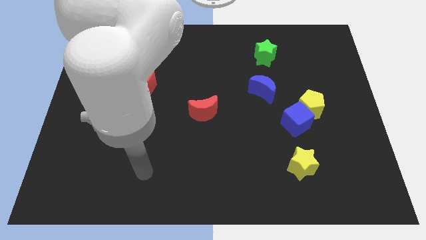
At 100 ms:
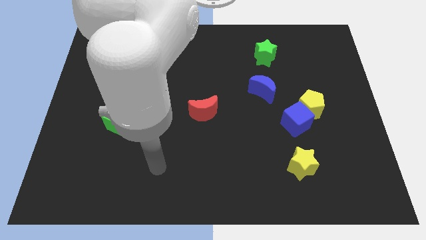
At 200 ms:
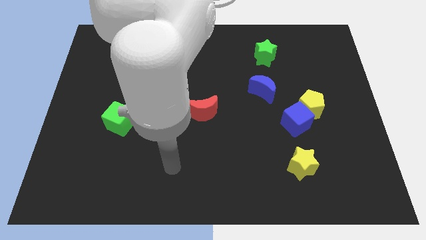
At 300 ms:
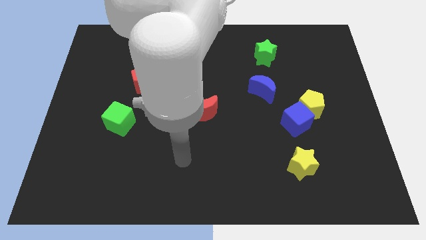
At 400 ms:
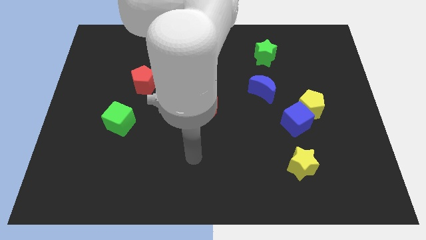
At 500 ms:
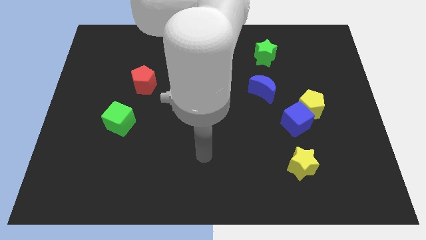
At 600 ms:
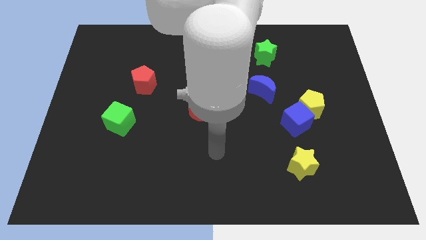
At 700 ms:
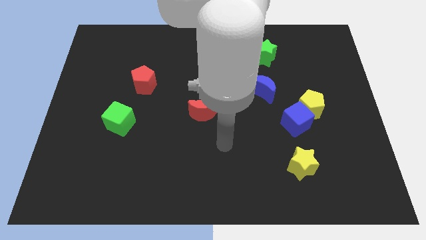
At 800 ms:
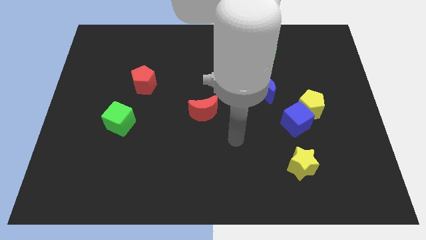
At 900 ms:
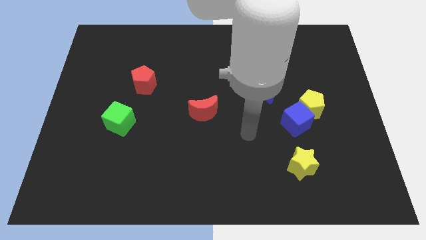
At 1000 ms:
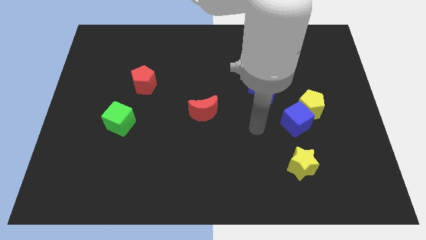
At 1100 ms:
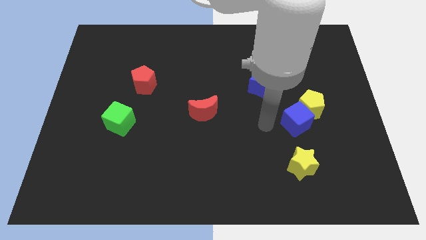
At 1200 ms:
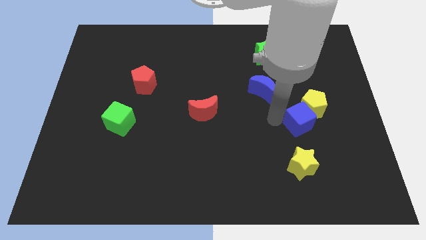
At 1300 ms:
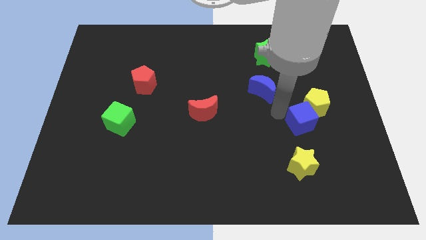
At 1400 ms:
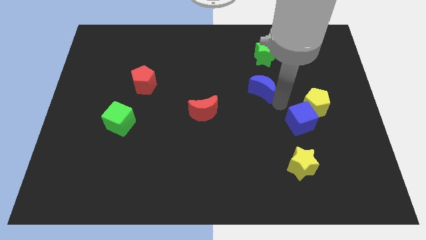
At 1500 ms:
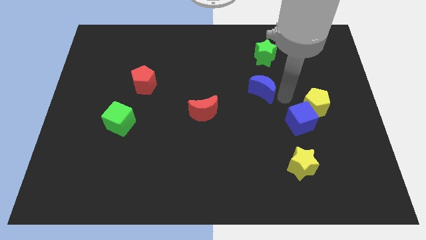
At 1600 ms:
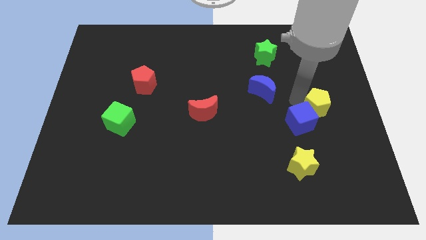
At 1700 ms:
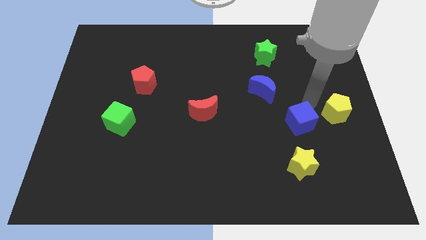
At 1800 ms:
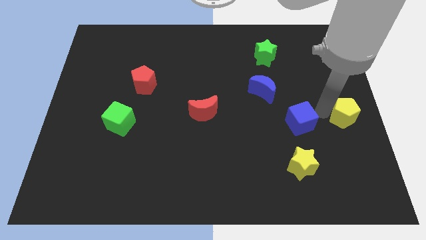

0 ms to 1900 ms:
move the blue cube away from the yellow pentagon

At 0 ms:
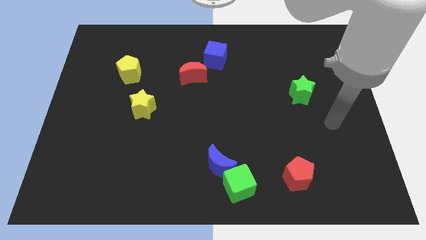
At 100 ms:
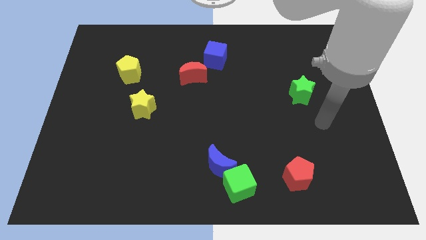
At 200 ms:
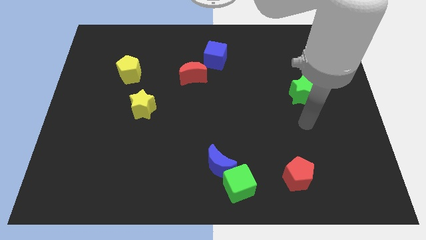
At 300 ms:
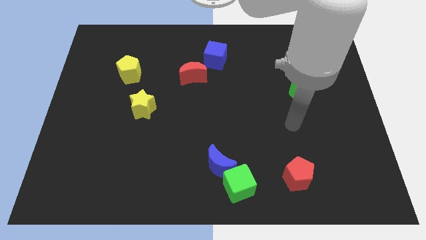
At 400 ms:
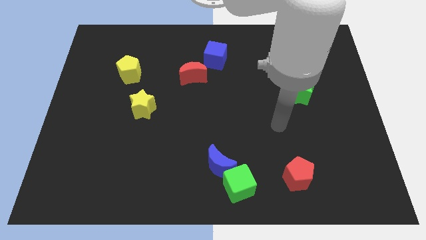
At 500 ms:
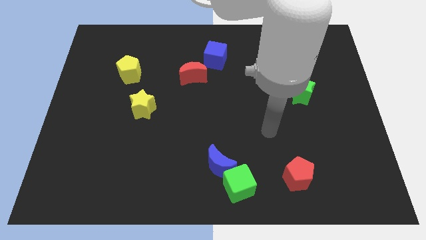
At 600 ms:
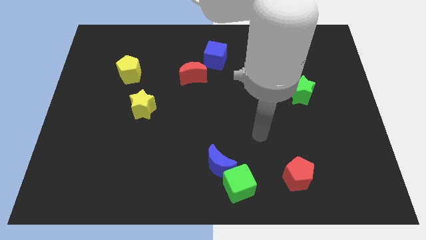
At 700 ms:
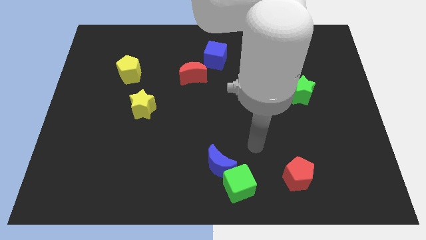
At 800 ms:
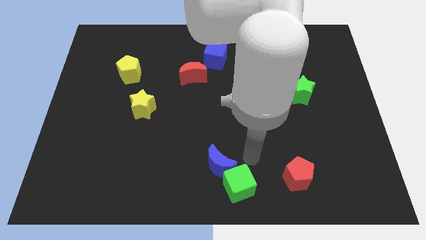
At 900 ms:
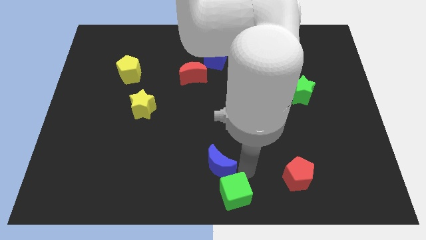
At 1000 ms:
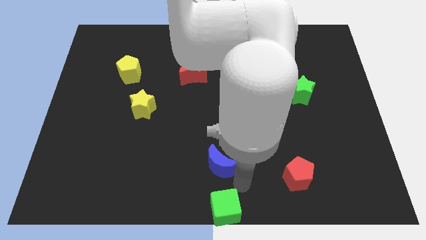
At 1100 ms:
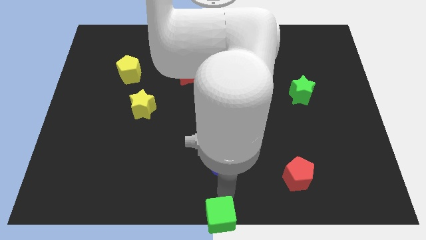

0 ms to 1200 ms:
pull the blue moon apart from the green cube

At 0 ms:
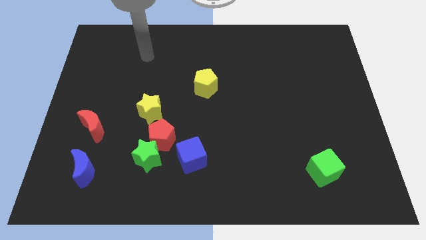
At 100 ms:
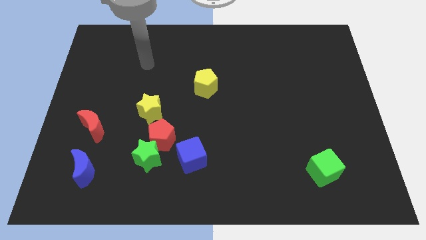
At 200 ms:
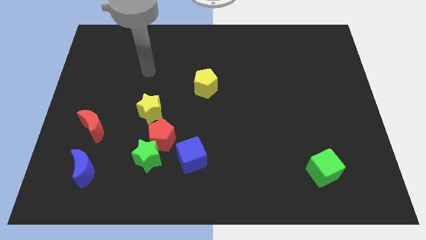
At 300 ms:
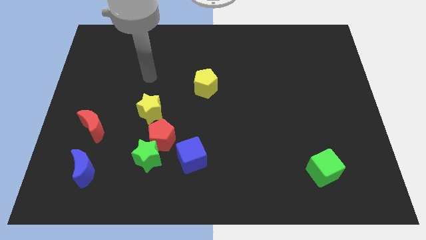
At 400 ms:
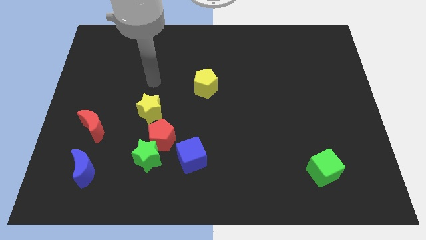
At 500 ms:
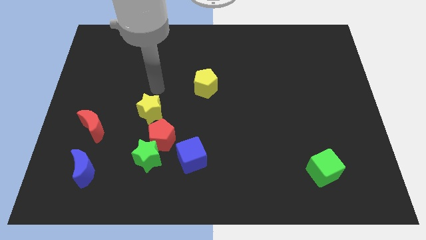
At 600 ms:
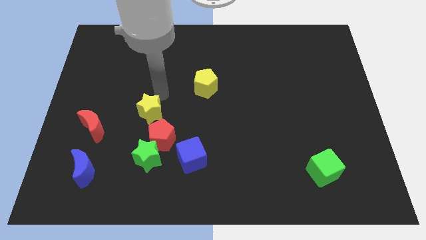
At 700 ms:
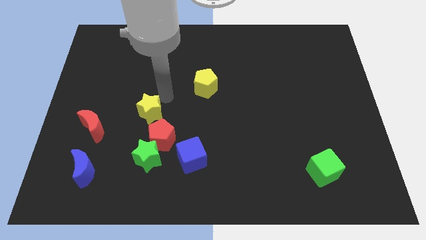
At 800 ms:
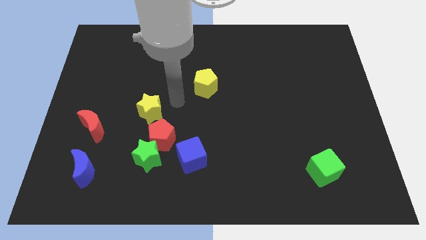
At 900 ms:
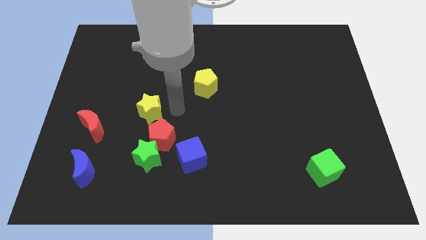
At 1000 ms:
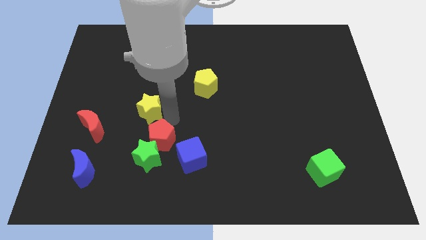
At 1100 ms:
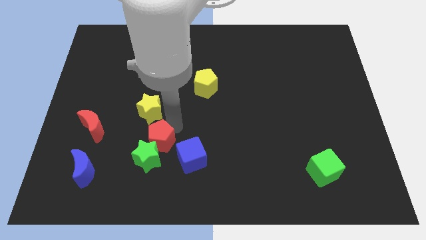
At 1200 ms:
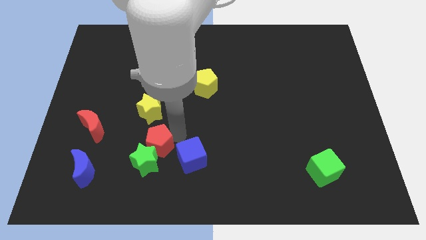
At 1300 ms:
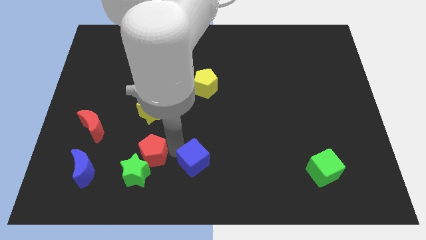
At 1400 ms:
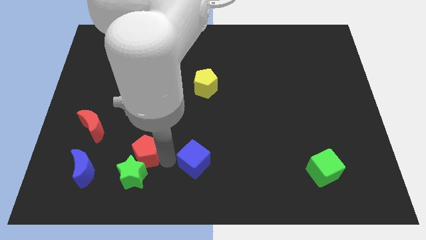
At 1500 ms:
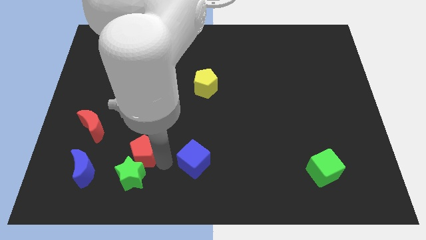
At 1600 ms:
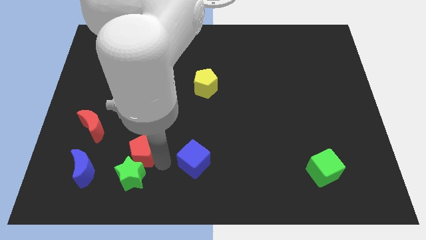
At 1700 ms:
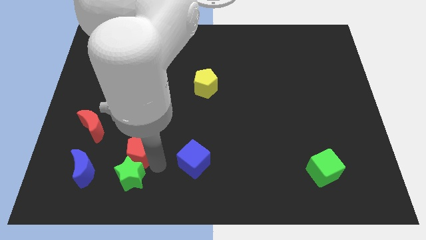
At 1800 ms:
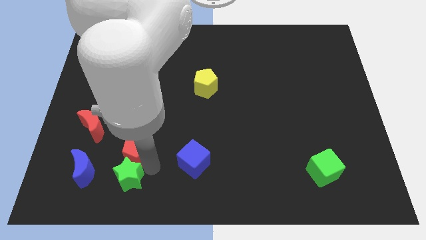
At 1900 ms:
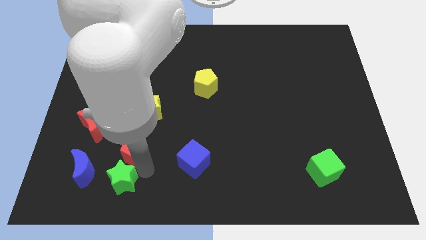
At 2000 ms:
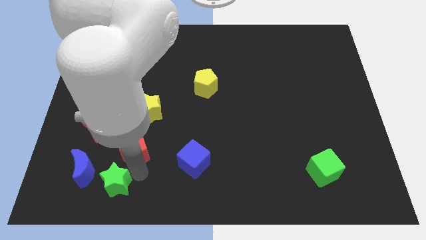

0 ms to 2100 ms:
separate the green star from the red pentagon and blue cube

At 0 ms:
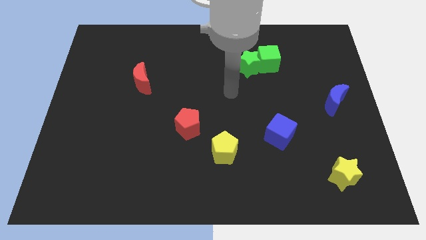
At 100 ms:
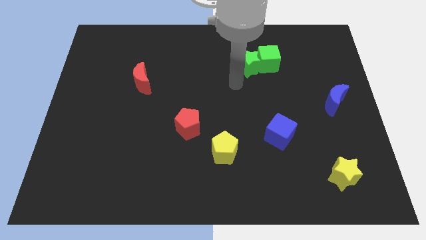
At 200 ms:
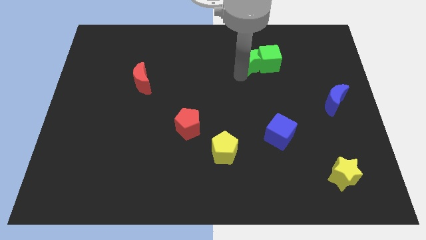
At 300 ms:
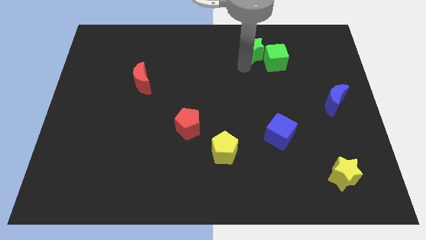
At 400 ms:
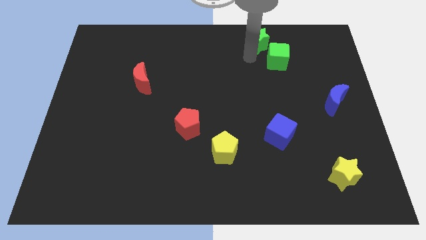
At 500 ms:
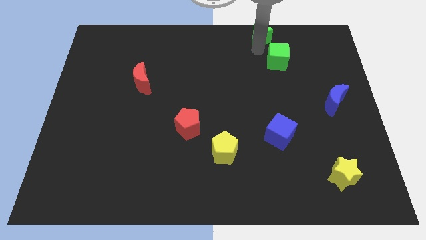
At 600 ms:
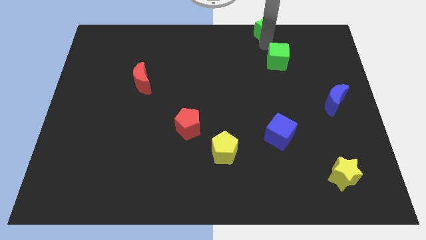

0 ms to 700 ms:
move the green cube away from the green star

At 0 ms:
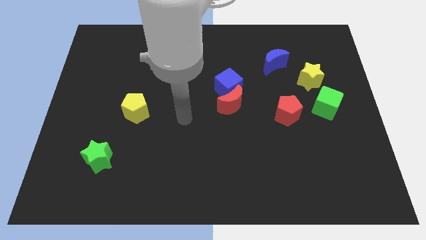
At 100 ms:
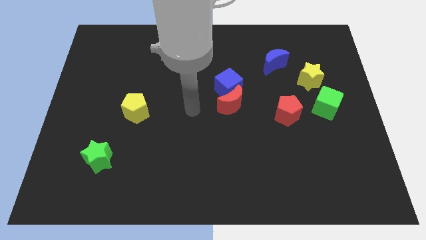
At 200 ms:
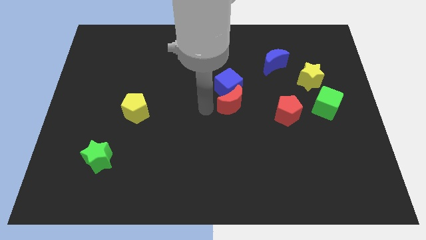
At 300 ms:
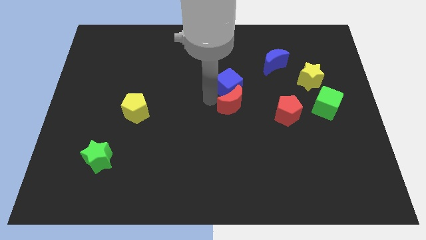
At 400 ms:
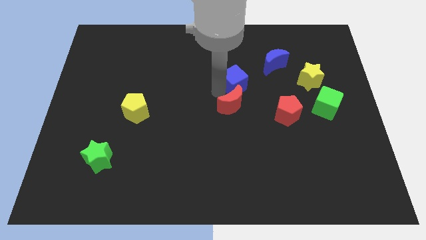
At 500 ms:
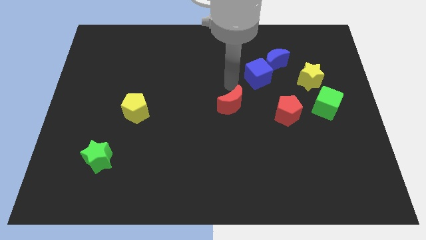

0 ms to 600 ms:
move the red moon away from the blue cube

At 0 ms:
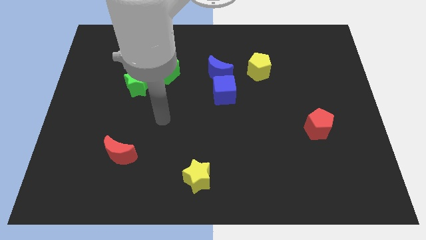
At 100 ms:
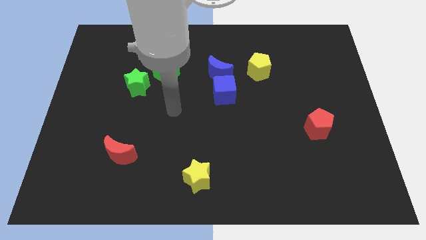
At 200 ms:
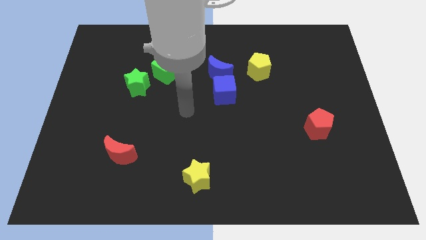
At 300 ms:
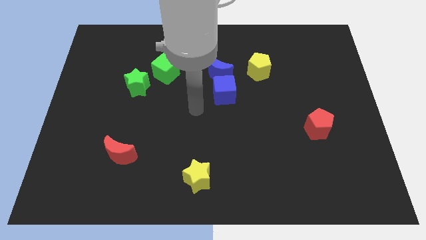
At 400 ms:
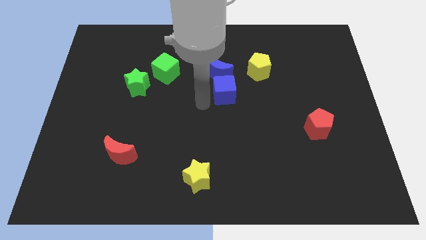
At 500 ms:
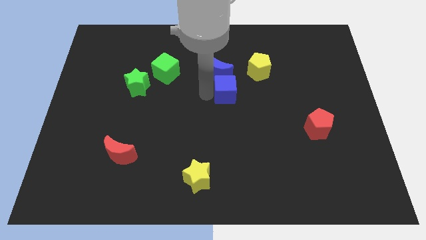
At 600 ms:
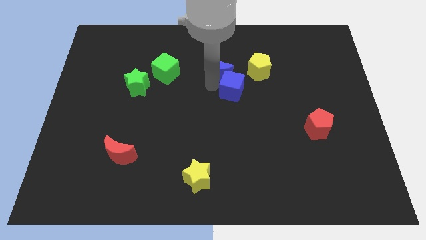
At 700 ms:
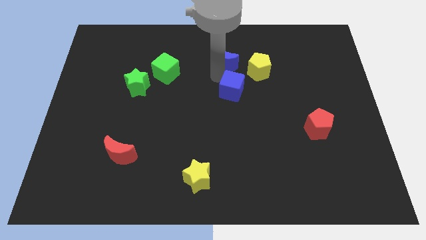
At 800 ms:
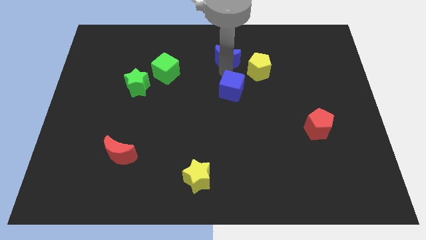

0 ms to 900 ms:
pull the blue cube apart from the blue moon

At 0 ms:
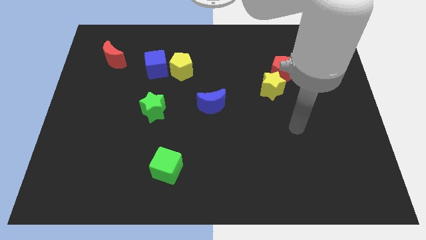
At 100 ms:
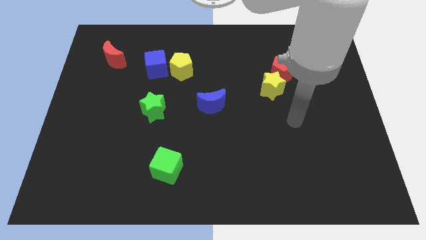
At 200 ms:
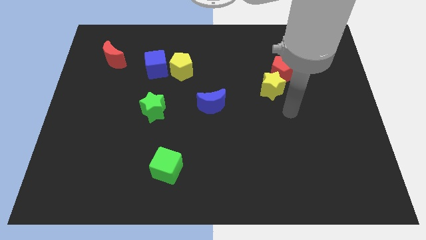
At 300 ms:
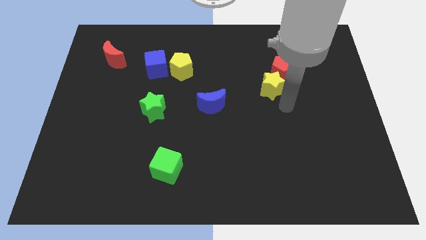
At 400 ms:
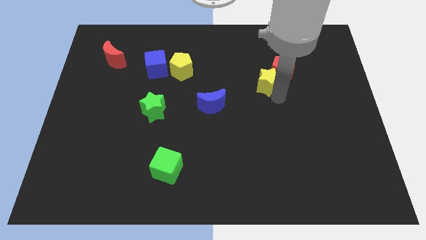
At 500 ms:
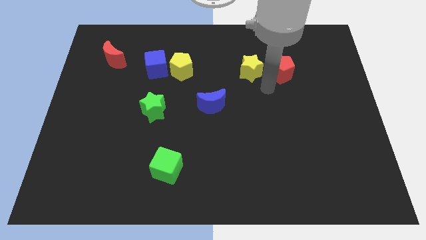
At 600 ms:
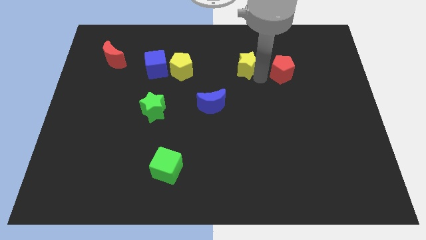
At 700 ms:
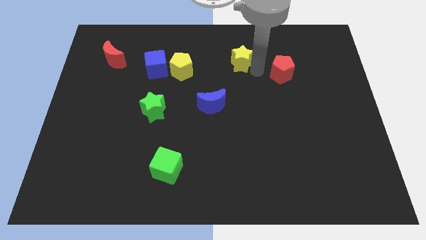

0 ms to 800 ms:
pull the red pentagon apart from the yellow star

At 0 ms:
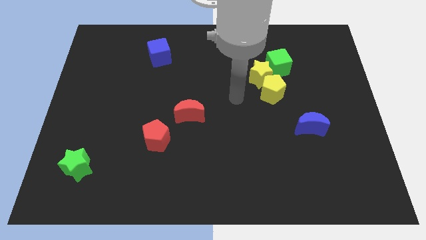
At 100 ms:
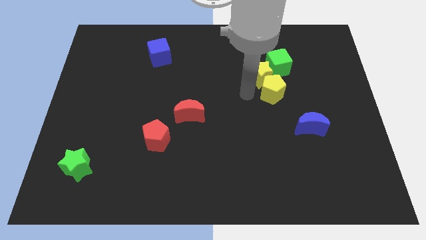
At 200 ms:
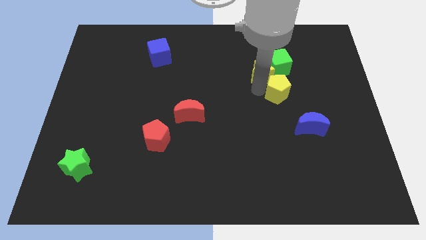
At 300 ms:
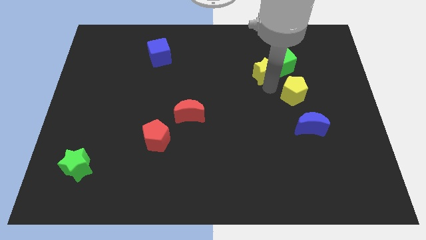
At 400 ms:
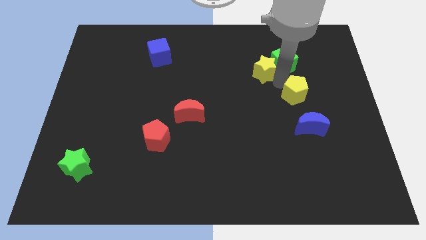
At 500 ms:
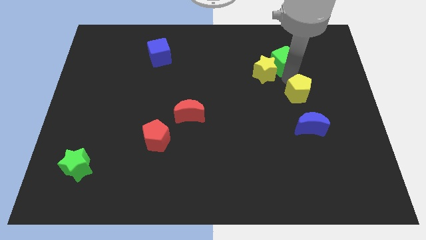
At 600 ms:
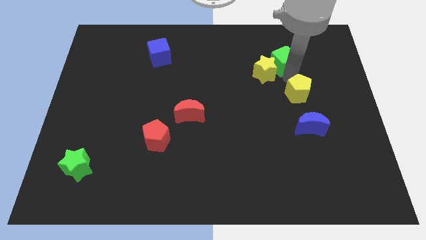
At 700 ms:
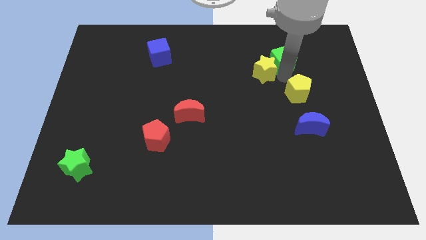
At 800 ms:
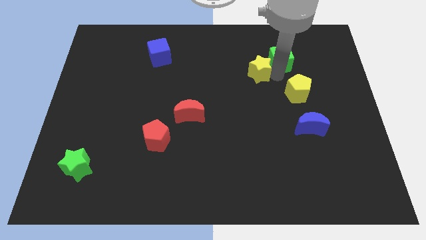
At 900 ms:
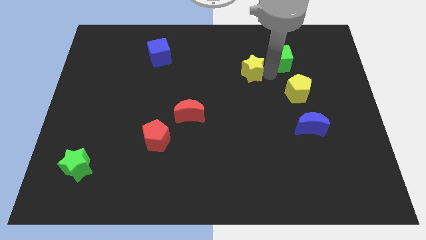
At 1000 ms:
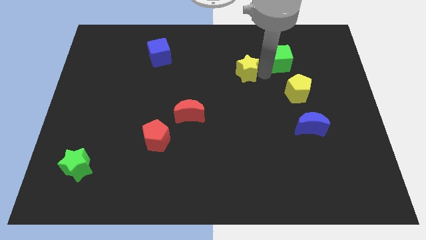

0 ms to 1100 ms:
pull the yellow star apart from the yellow pentagon and green cube

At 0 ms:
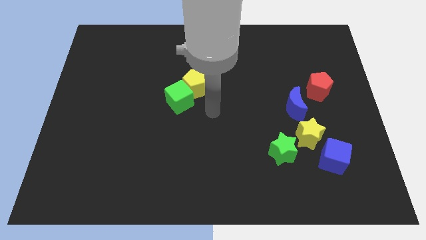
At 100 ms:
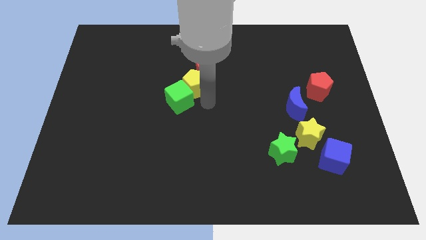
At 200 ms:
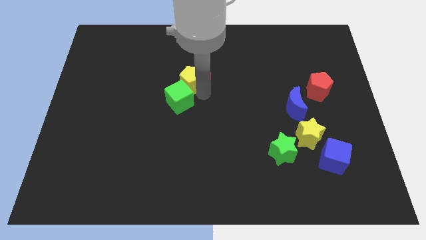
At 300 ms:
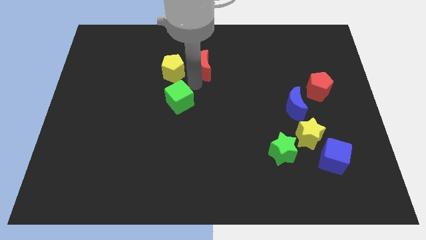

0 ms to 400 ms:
pull the green cube apart from the yellow pentagon
